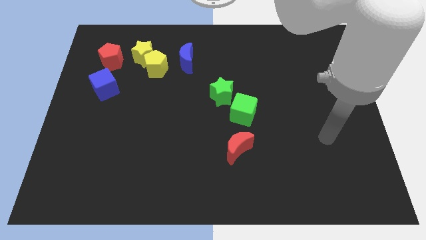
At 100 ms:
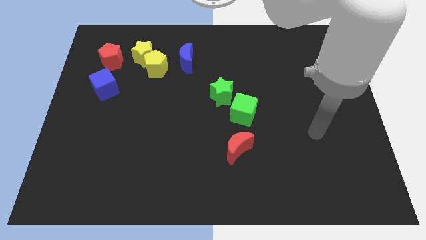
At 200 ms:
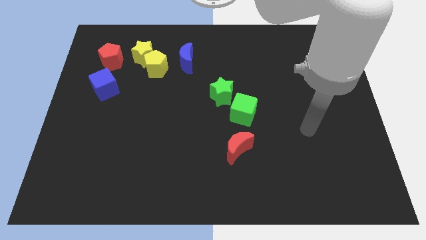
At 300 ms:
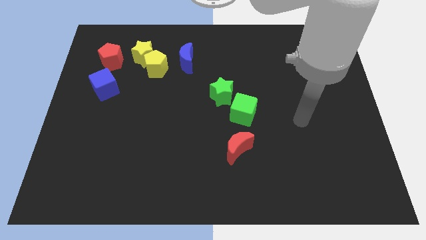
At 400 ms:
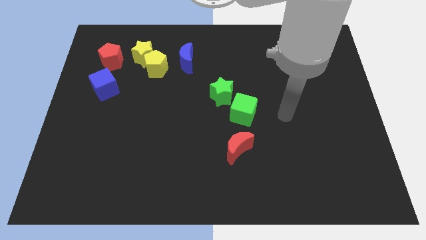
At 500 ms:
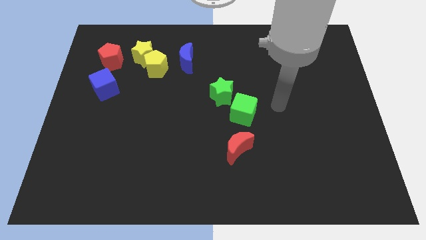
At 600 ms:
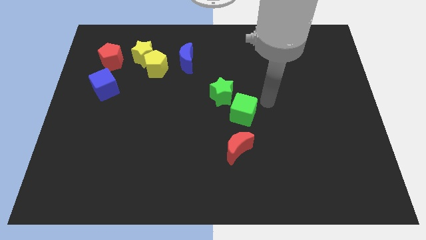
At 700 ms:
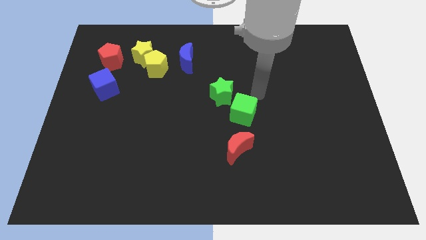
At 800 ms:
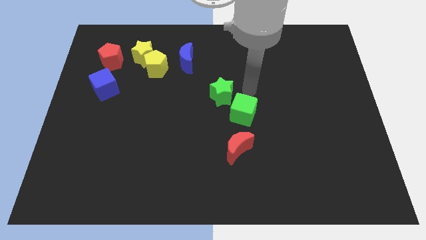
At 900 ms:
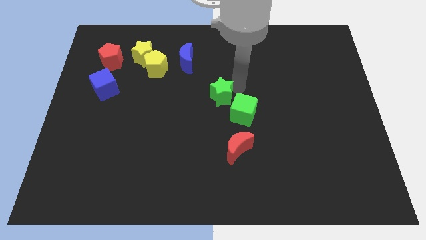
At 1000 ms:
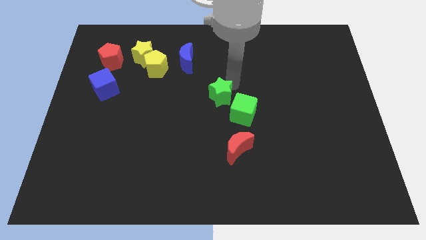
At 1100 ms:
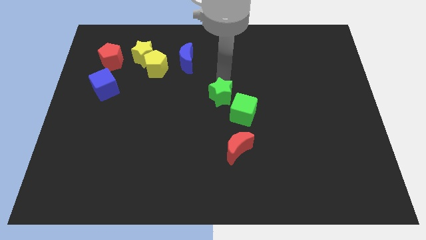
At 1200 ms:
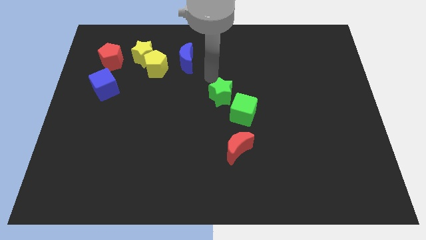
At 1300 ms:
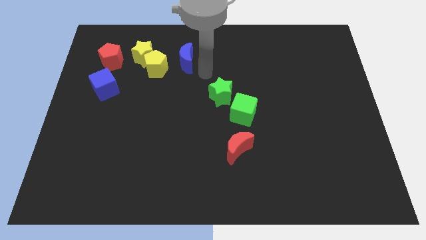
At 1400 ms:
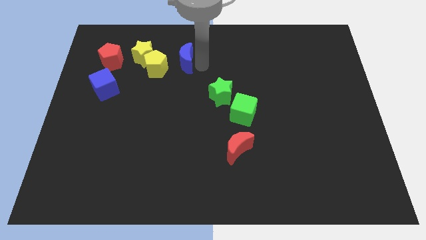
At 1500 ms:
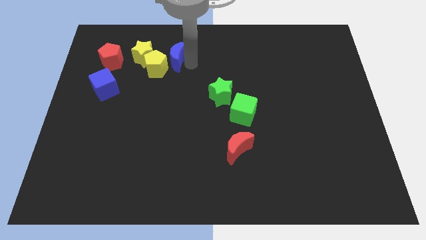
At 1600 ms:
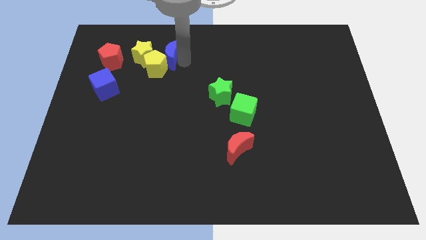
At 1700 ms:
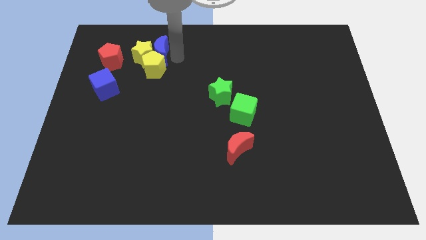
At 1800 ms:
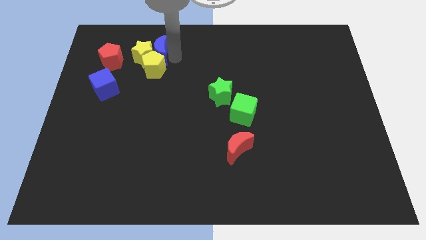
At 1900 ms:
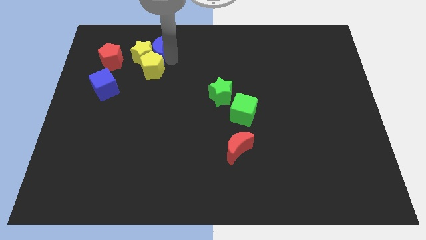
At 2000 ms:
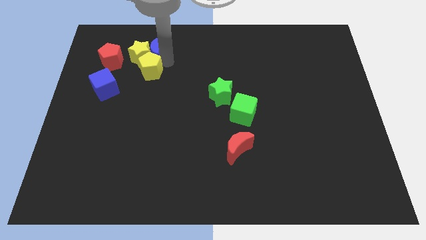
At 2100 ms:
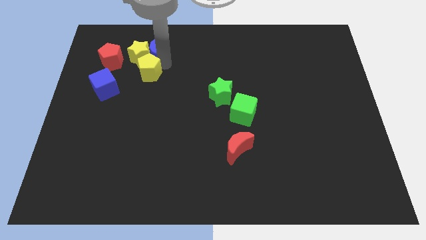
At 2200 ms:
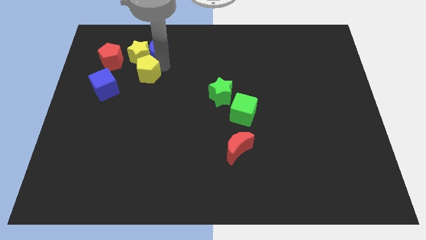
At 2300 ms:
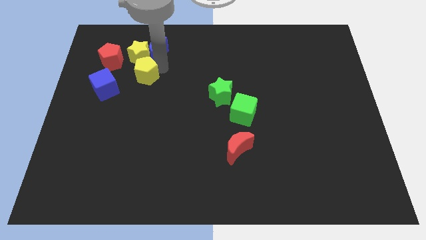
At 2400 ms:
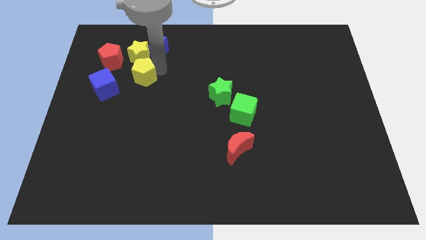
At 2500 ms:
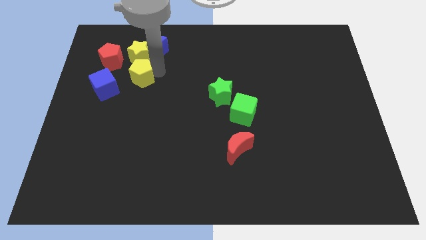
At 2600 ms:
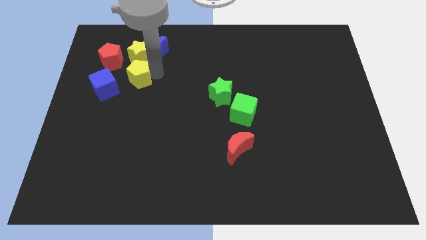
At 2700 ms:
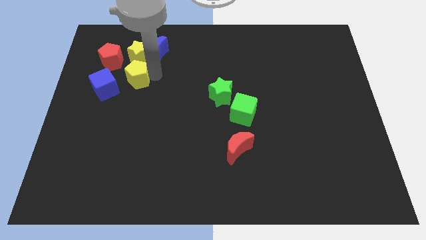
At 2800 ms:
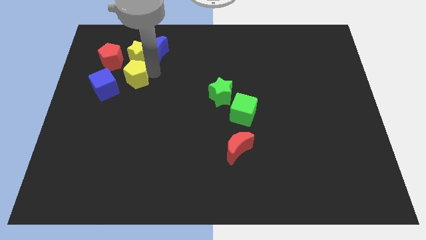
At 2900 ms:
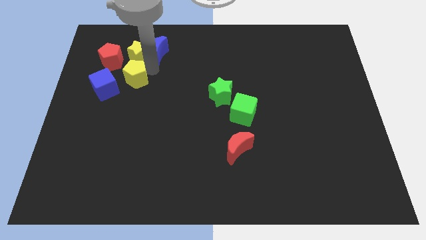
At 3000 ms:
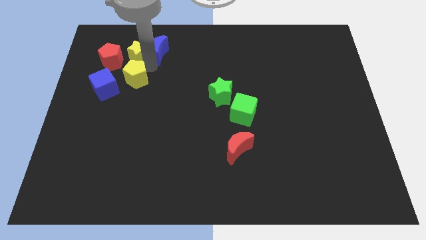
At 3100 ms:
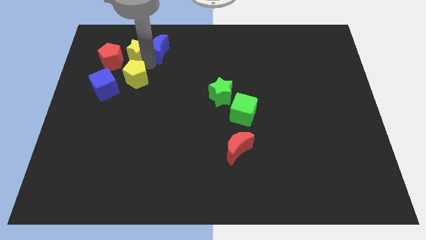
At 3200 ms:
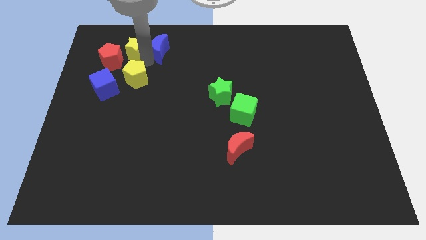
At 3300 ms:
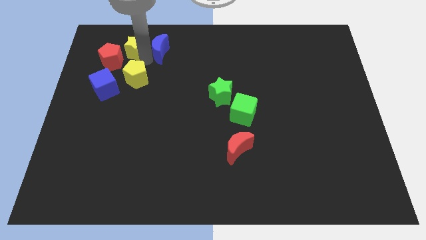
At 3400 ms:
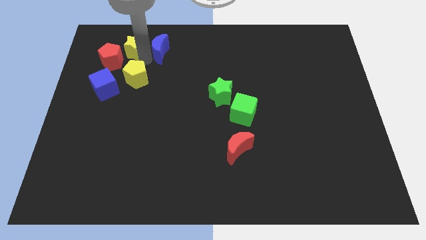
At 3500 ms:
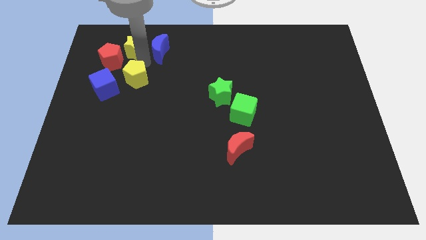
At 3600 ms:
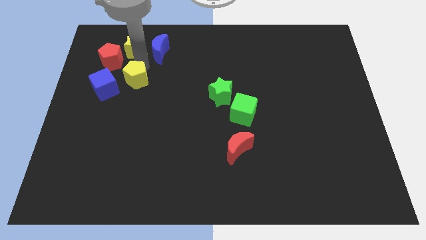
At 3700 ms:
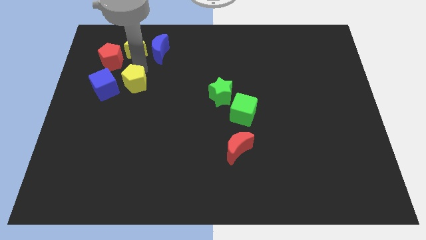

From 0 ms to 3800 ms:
pull the yellow pentagon apart from the yellow star and blue moon

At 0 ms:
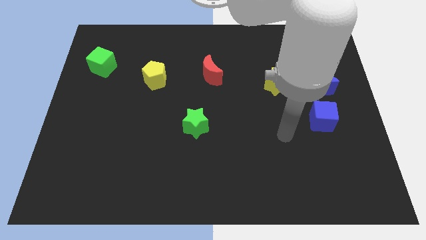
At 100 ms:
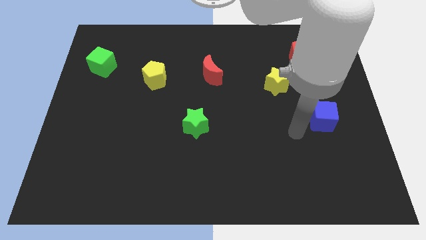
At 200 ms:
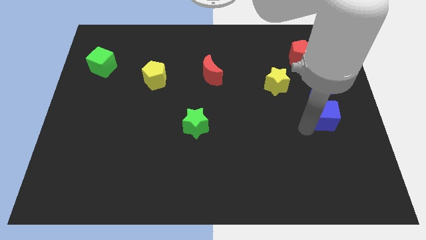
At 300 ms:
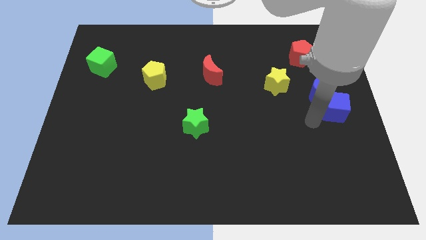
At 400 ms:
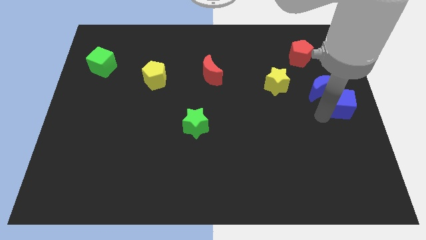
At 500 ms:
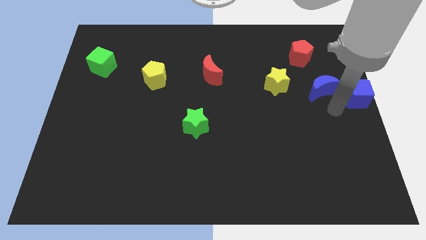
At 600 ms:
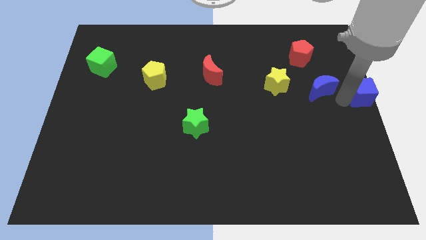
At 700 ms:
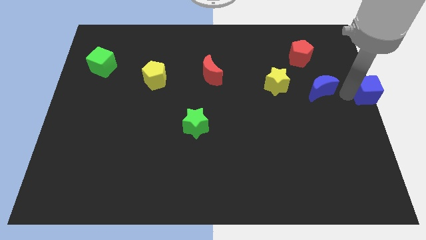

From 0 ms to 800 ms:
move the blue moon away from the blue cube

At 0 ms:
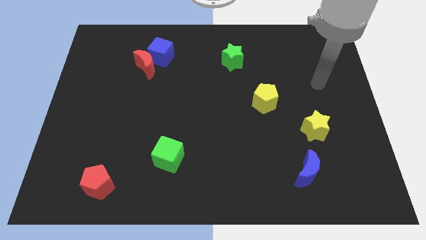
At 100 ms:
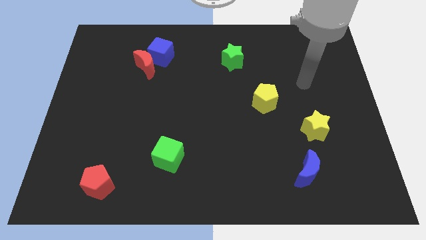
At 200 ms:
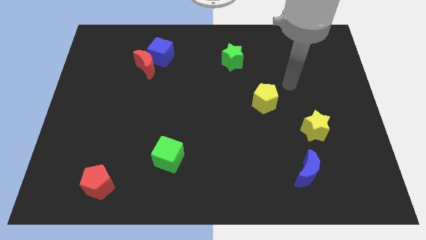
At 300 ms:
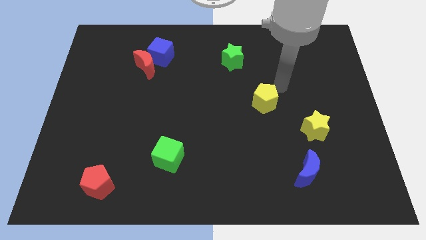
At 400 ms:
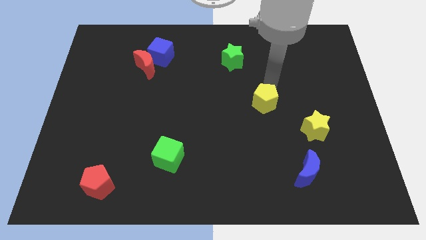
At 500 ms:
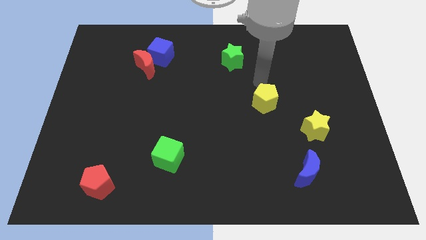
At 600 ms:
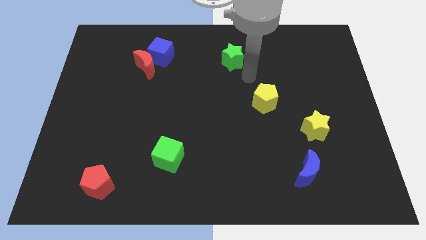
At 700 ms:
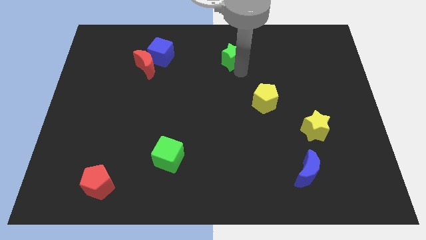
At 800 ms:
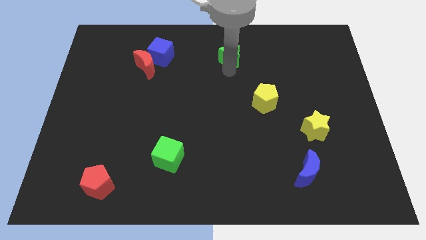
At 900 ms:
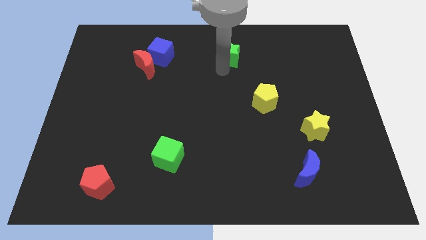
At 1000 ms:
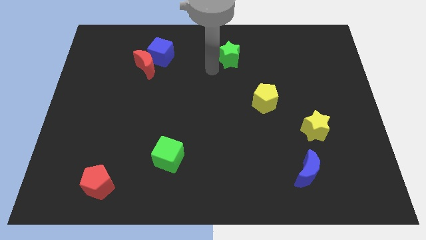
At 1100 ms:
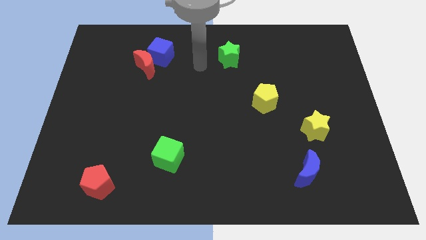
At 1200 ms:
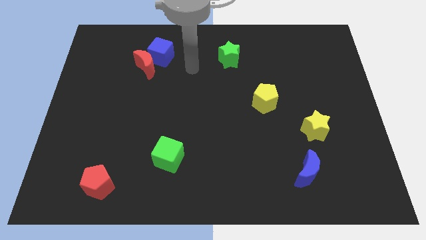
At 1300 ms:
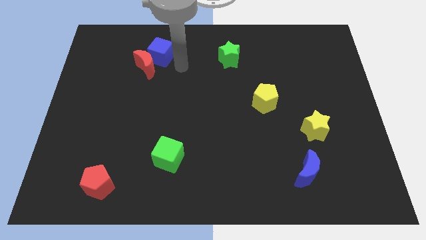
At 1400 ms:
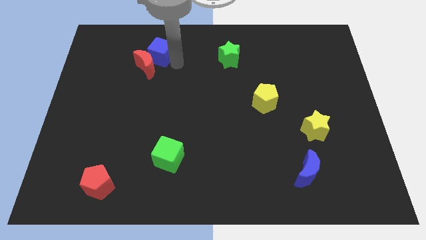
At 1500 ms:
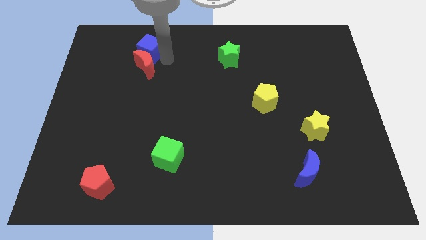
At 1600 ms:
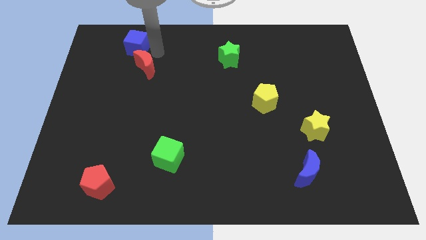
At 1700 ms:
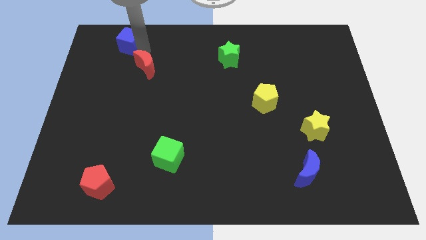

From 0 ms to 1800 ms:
move the red moon away from the blue cube

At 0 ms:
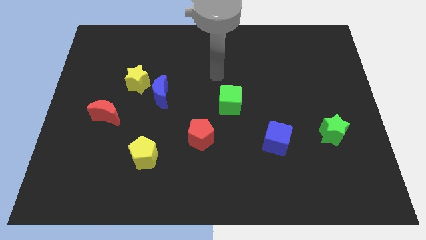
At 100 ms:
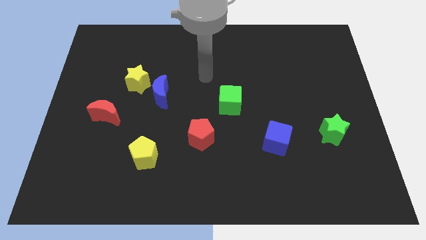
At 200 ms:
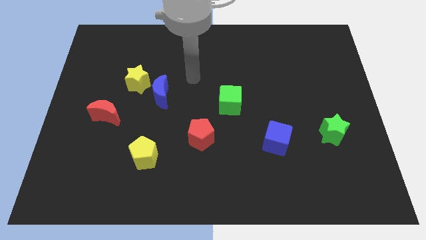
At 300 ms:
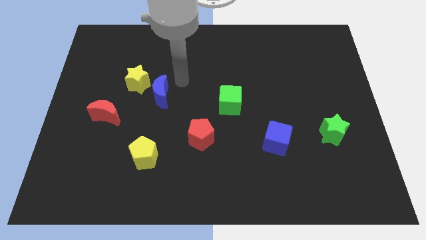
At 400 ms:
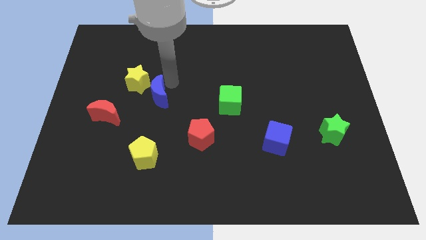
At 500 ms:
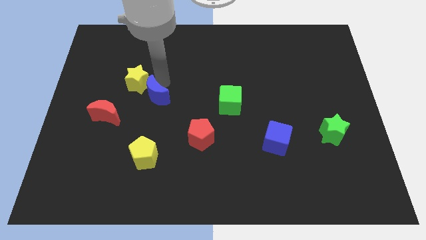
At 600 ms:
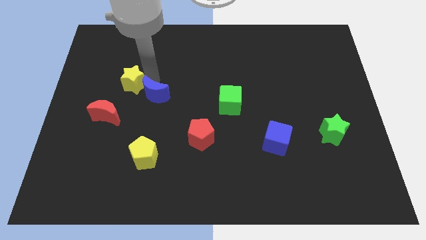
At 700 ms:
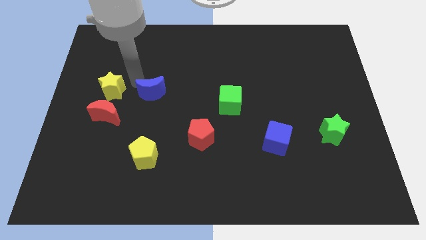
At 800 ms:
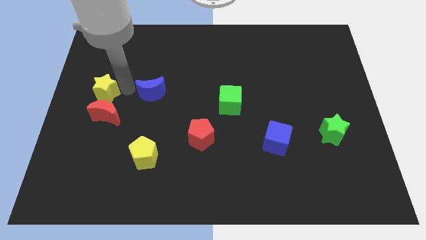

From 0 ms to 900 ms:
separate the blue moon from the yellow star

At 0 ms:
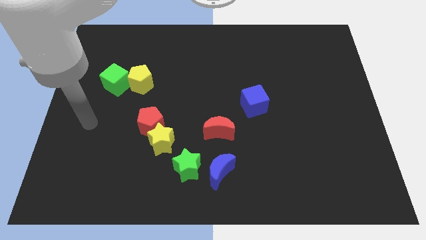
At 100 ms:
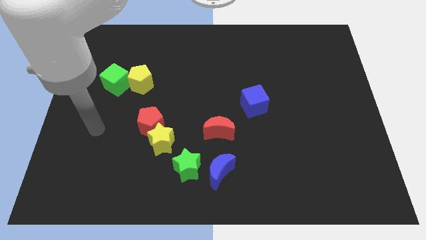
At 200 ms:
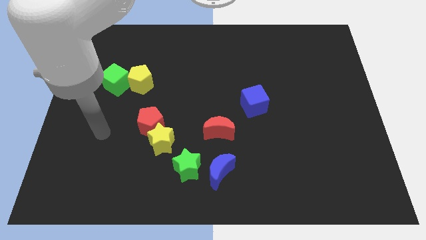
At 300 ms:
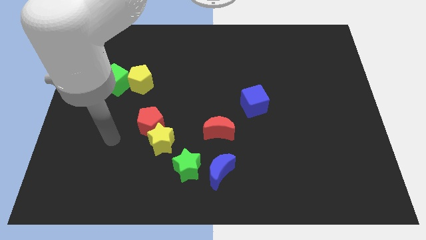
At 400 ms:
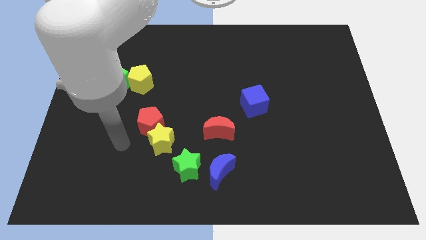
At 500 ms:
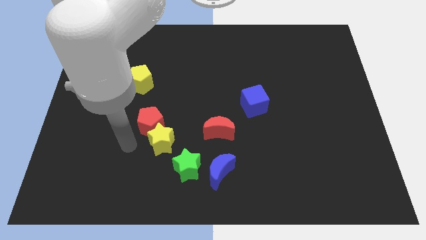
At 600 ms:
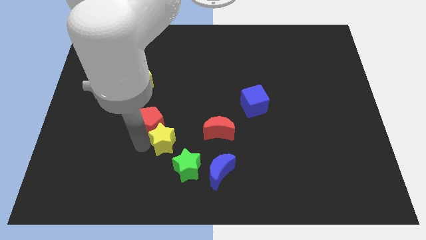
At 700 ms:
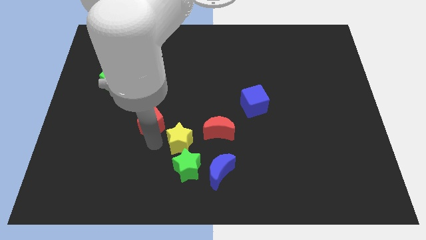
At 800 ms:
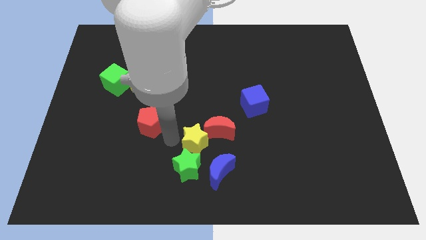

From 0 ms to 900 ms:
separate the red pentagon from the yellow star

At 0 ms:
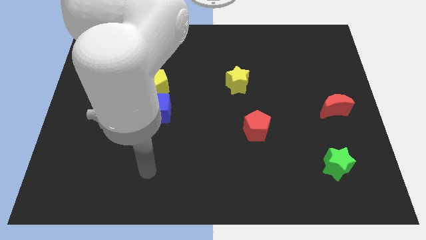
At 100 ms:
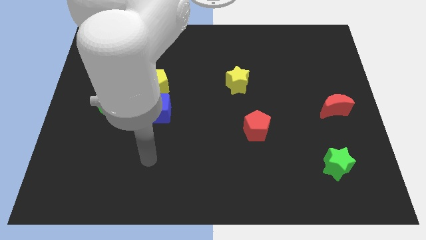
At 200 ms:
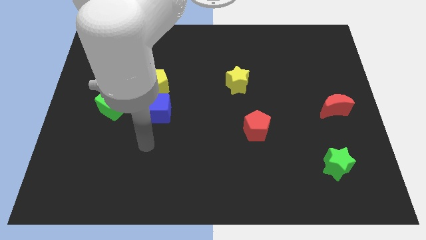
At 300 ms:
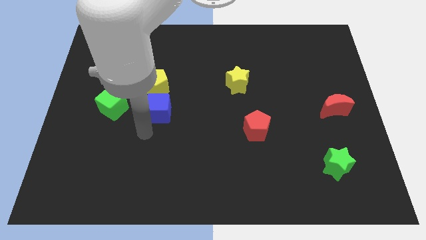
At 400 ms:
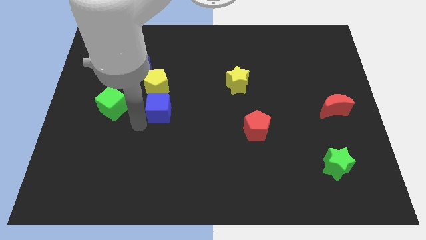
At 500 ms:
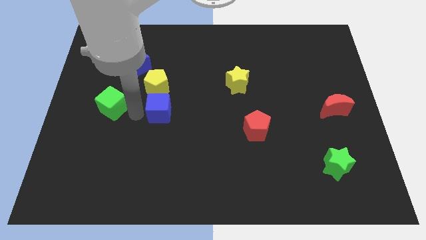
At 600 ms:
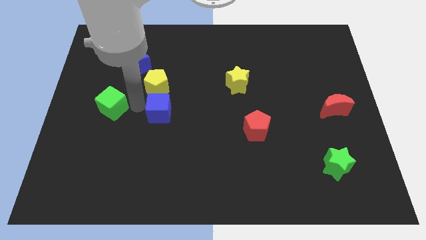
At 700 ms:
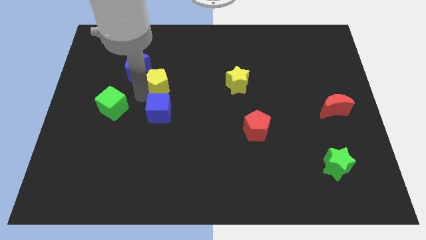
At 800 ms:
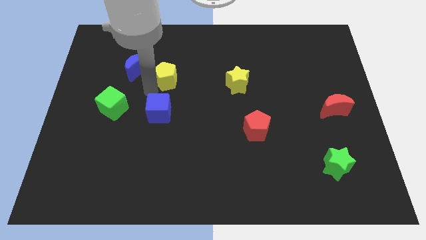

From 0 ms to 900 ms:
separate the blue cube from the yellow pentagon
